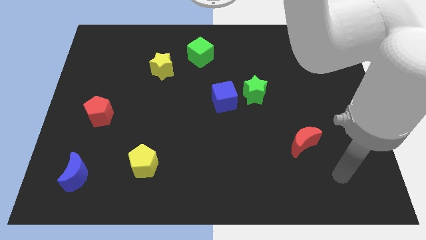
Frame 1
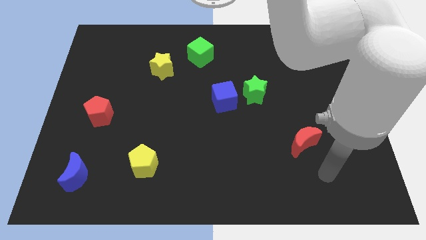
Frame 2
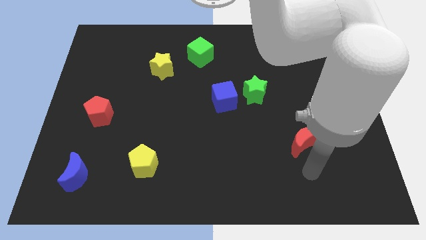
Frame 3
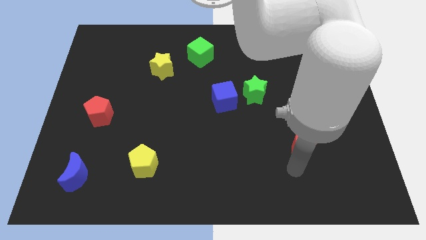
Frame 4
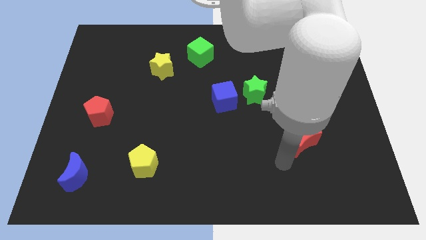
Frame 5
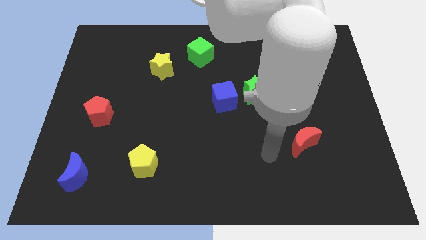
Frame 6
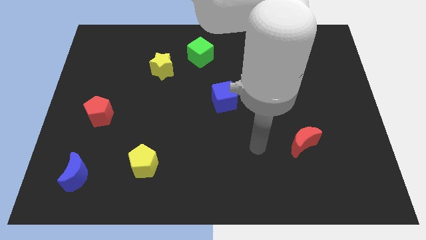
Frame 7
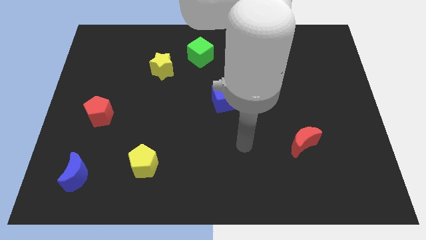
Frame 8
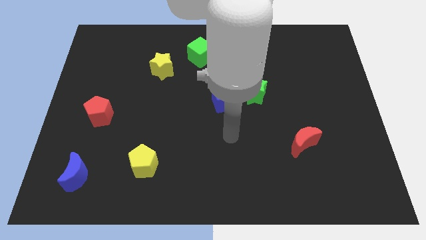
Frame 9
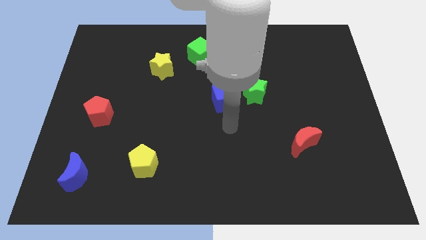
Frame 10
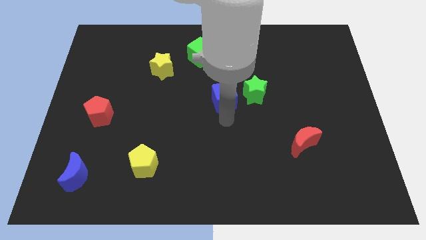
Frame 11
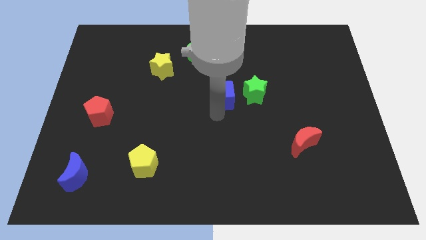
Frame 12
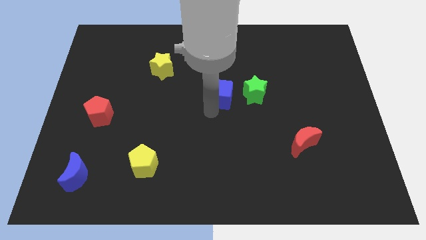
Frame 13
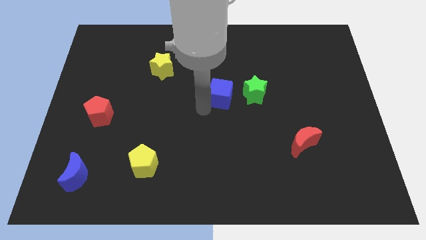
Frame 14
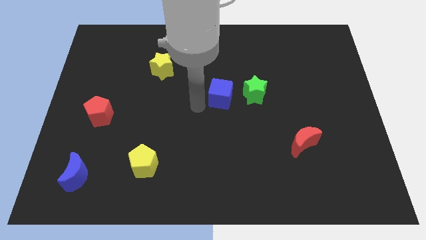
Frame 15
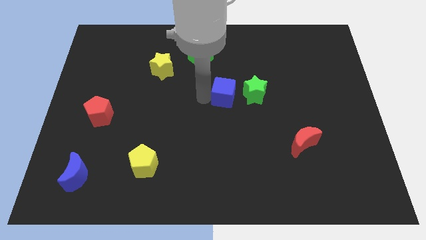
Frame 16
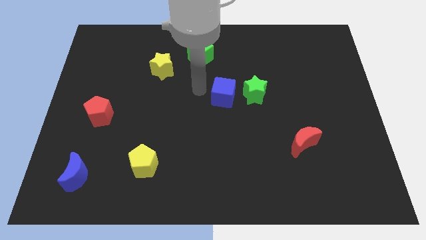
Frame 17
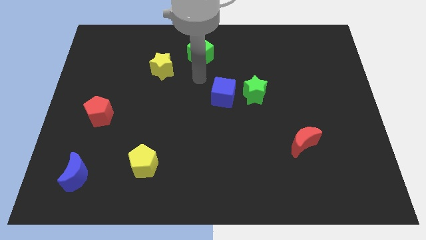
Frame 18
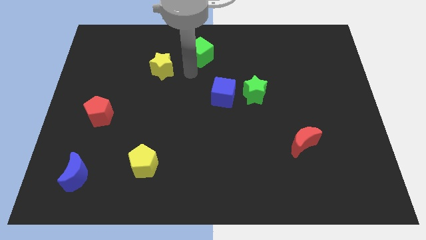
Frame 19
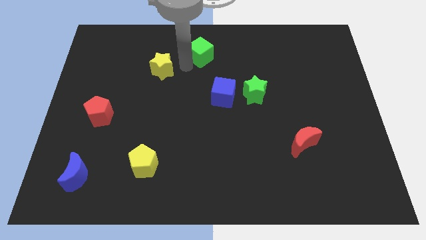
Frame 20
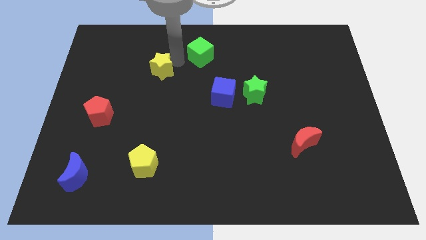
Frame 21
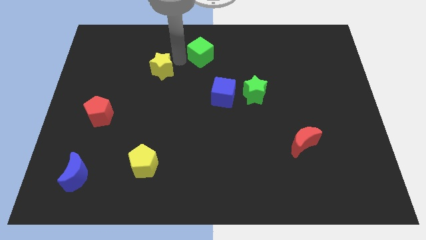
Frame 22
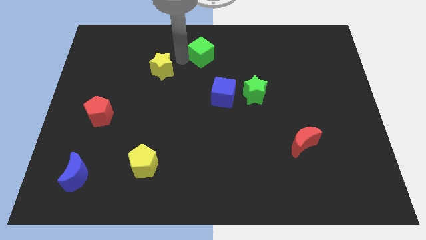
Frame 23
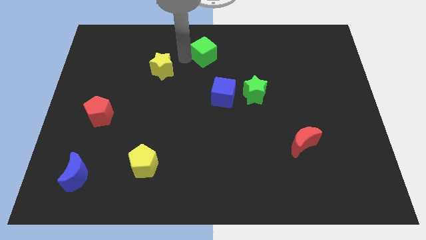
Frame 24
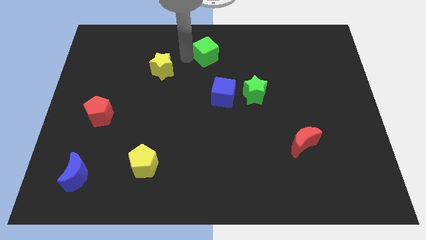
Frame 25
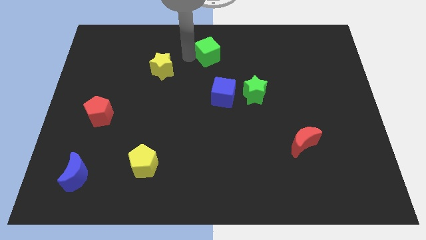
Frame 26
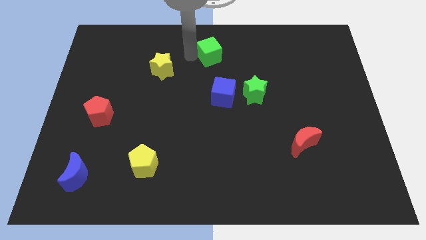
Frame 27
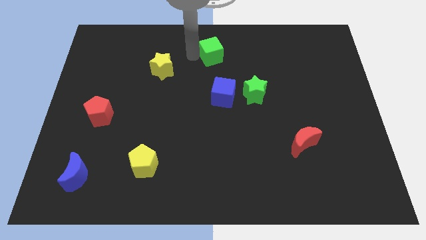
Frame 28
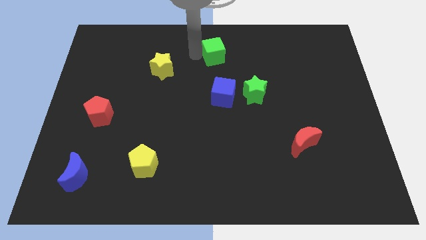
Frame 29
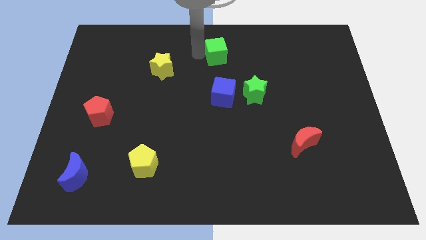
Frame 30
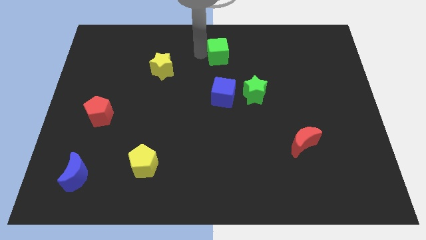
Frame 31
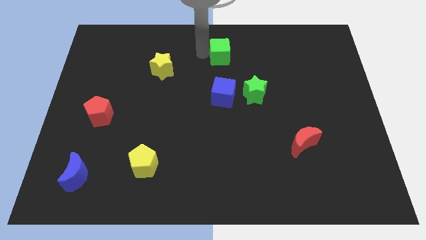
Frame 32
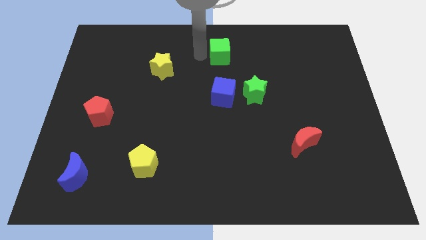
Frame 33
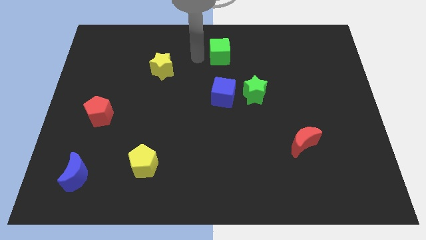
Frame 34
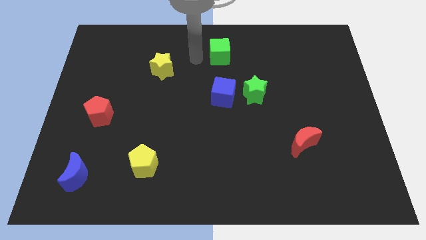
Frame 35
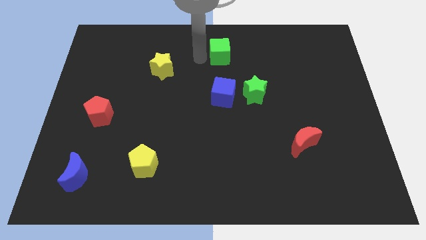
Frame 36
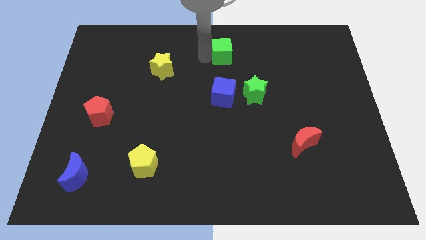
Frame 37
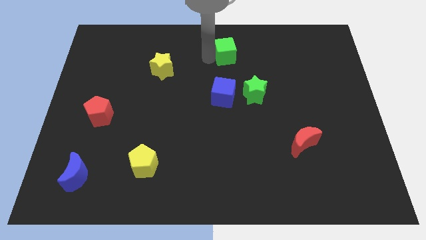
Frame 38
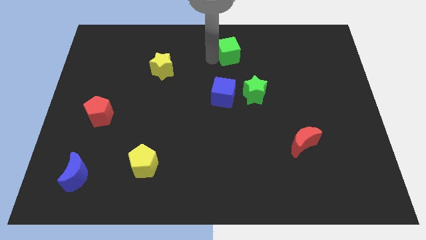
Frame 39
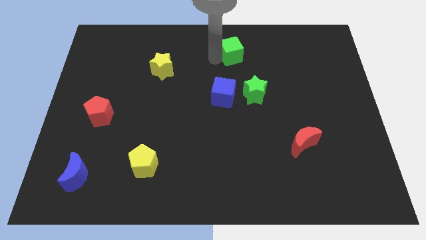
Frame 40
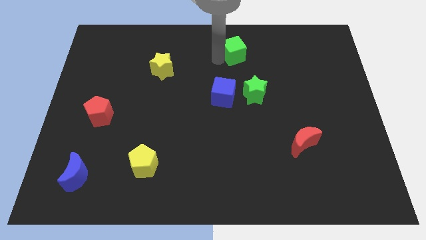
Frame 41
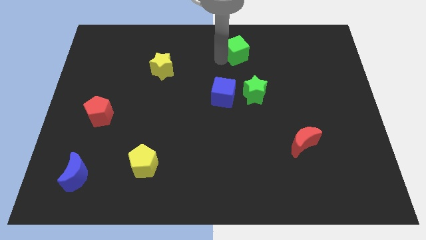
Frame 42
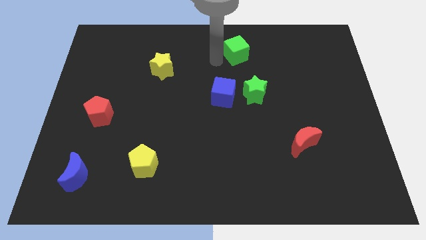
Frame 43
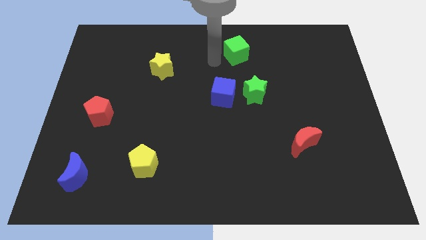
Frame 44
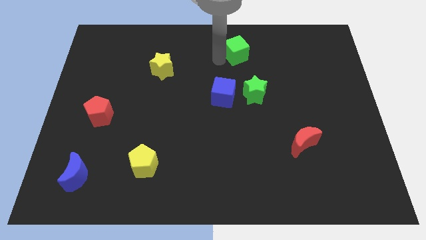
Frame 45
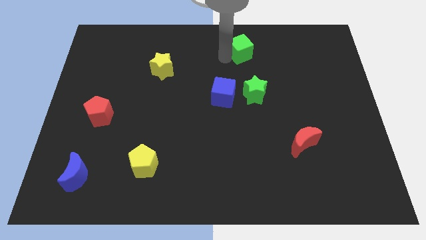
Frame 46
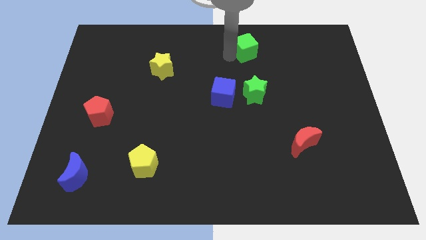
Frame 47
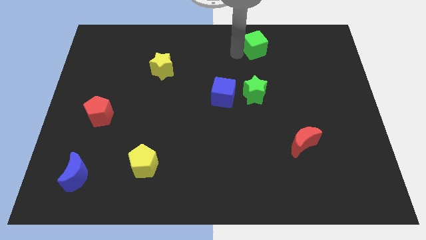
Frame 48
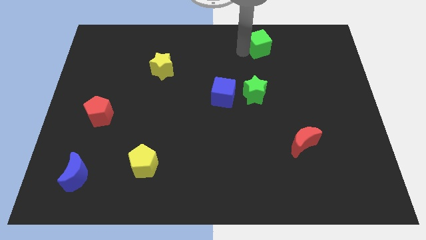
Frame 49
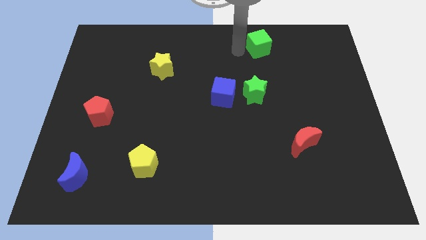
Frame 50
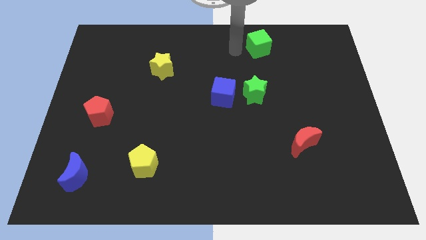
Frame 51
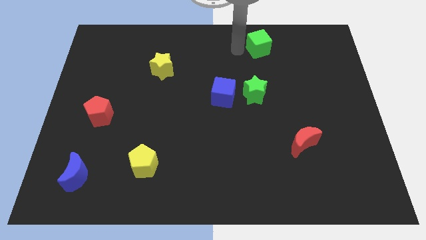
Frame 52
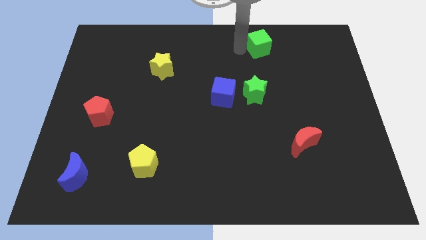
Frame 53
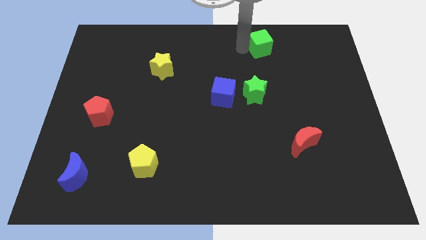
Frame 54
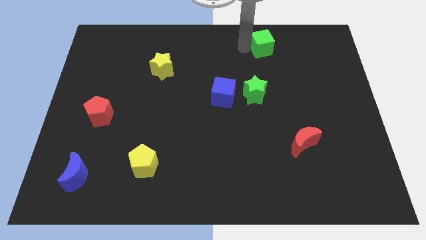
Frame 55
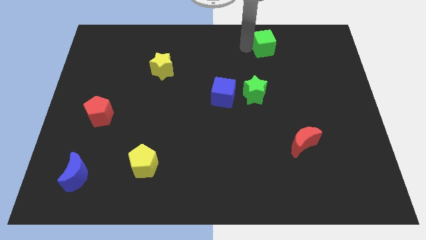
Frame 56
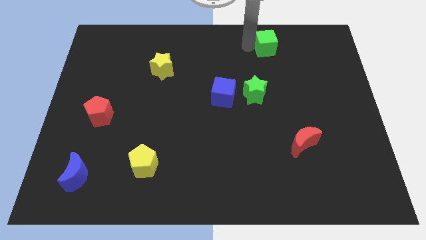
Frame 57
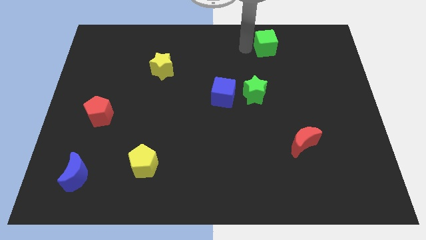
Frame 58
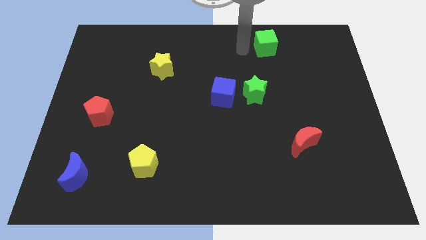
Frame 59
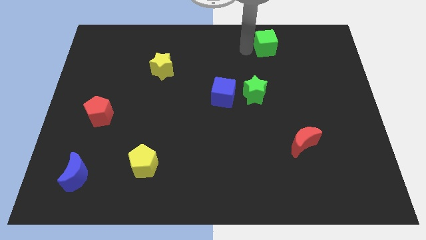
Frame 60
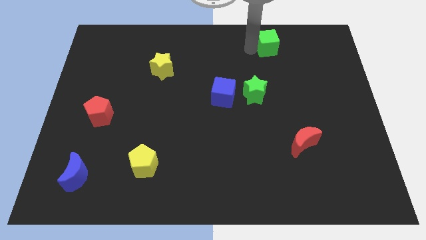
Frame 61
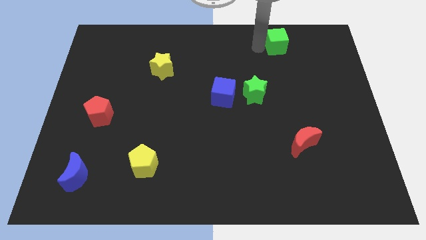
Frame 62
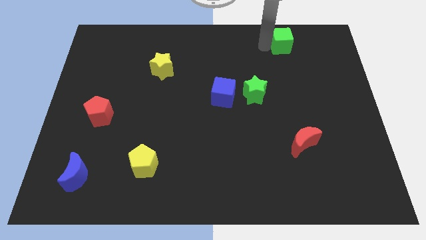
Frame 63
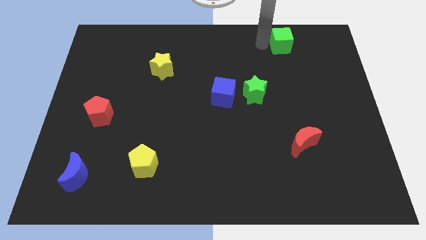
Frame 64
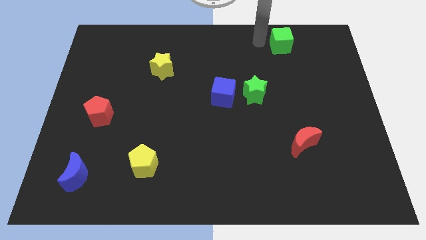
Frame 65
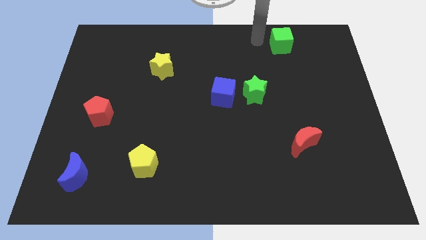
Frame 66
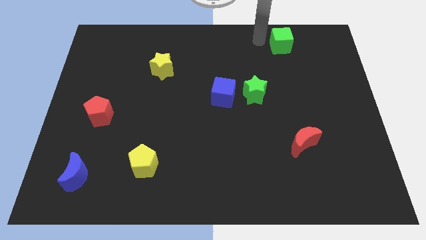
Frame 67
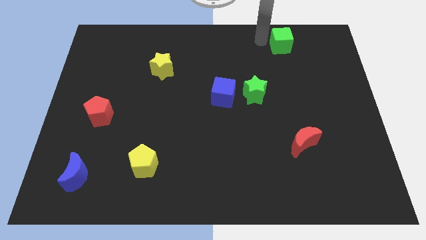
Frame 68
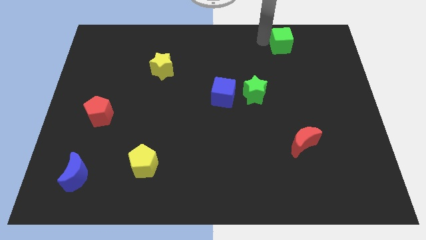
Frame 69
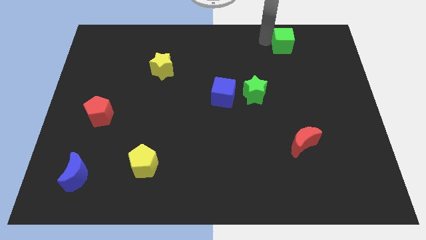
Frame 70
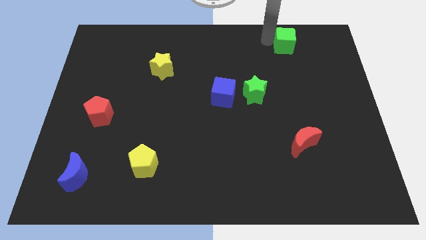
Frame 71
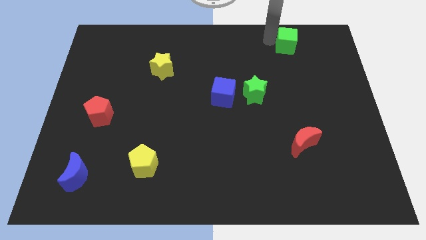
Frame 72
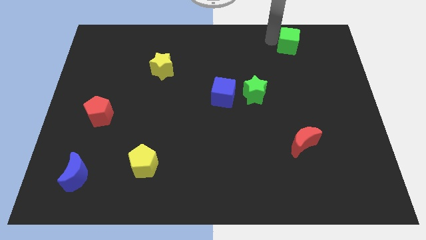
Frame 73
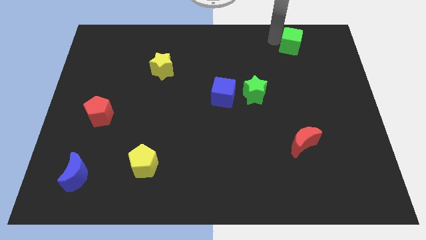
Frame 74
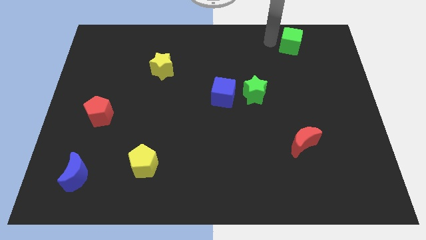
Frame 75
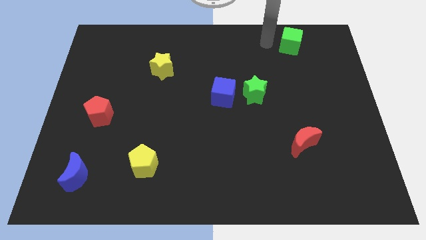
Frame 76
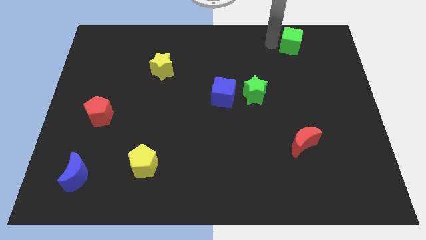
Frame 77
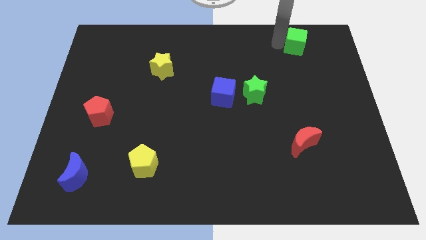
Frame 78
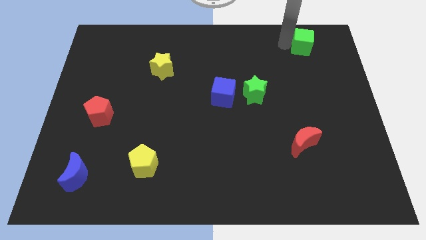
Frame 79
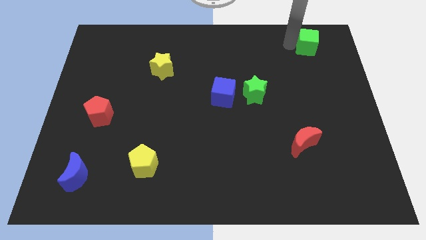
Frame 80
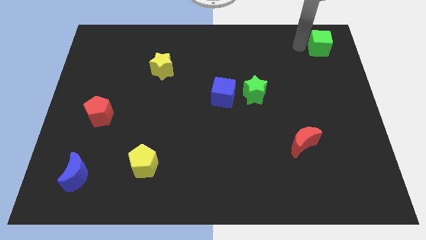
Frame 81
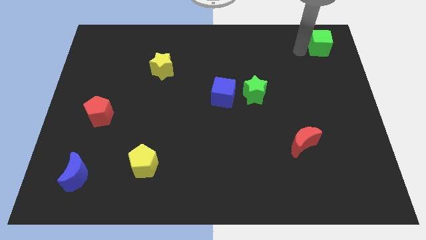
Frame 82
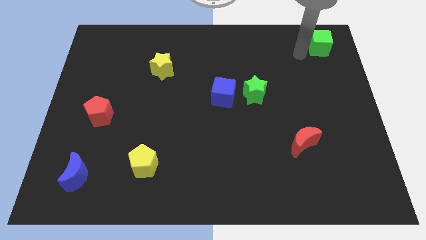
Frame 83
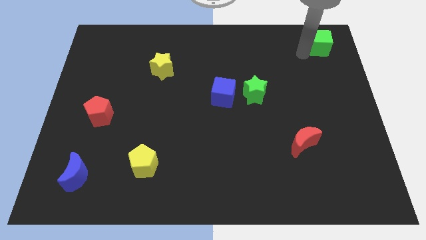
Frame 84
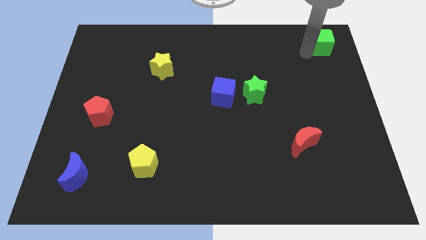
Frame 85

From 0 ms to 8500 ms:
push the green cube to the top right of the board
